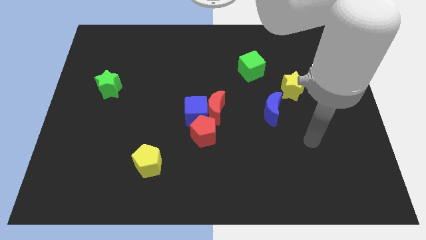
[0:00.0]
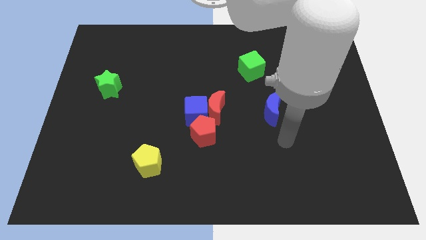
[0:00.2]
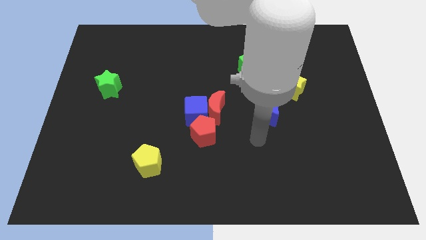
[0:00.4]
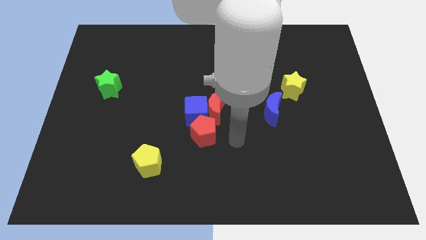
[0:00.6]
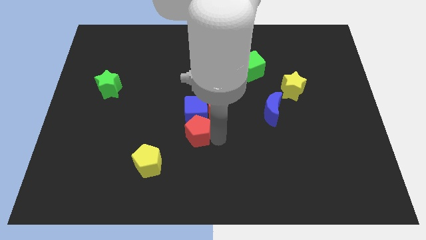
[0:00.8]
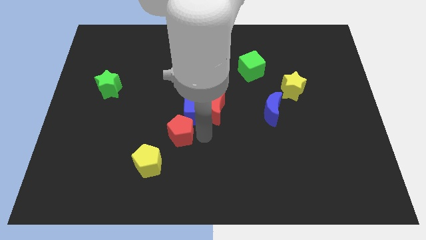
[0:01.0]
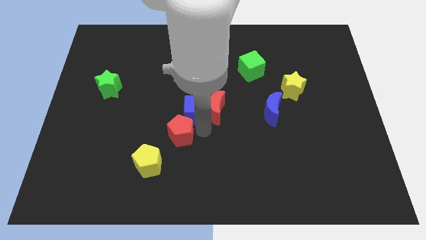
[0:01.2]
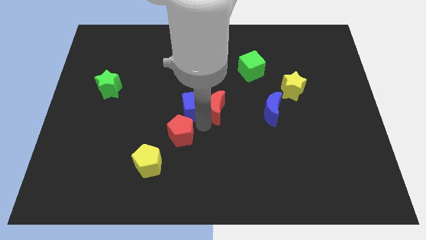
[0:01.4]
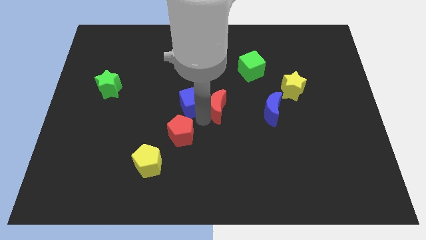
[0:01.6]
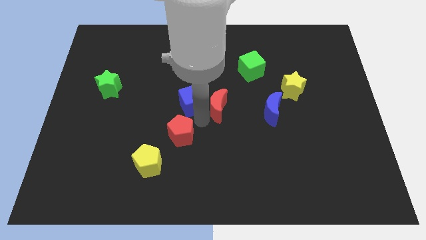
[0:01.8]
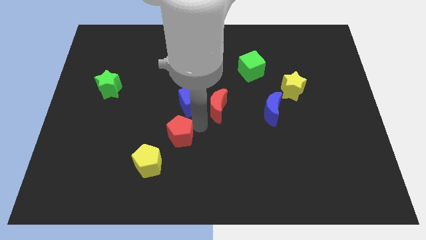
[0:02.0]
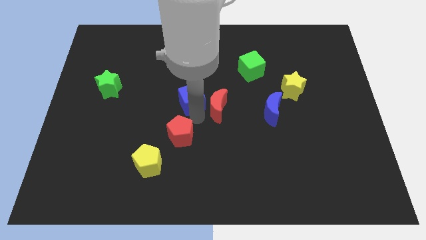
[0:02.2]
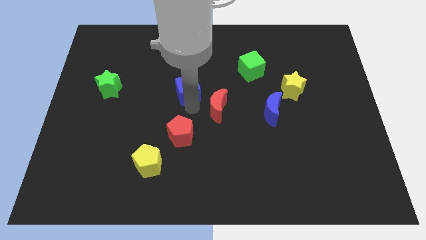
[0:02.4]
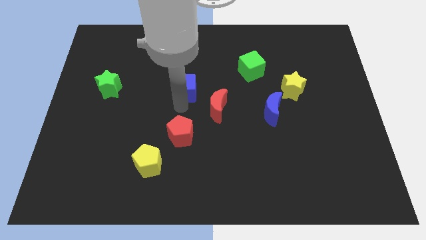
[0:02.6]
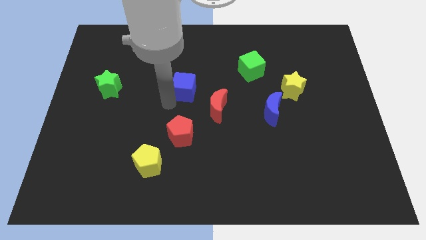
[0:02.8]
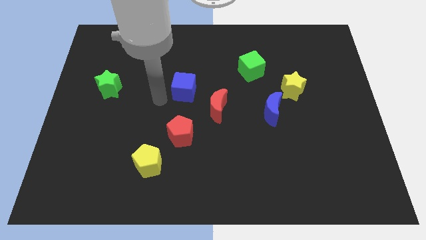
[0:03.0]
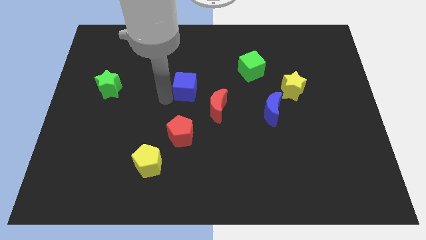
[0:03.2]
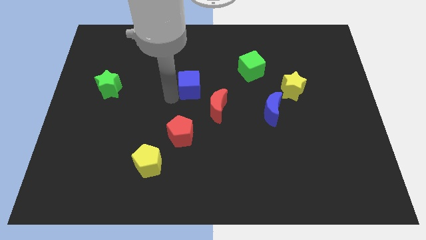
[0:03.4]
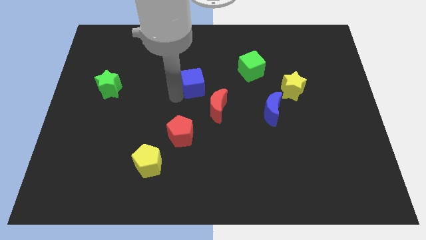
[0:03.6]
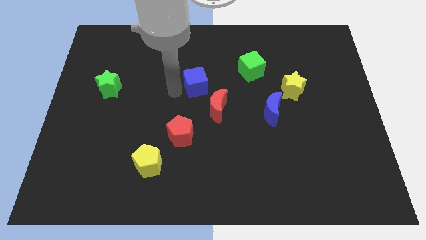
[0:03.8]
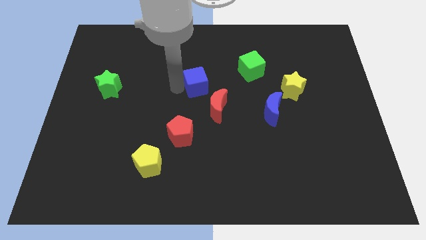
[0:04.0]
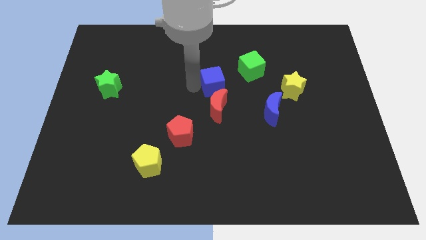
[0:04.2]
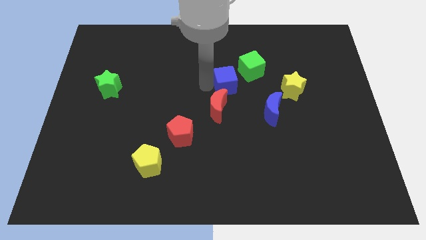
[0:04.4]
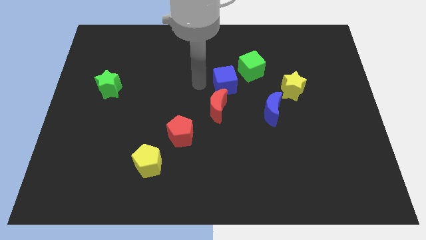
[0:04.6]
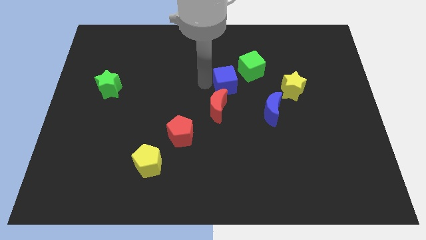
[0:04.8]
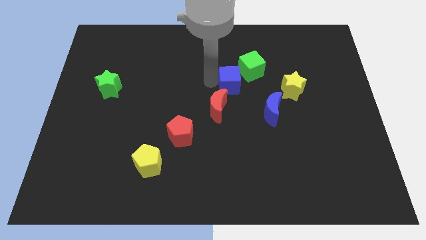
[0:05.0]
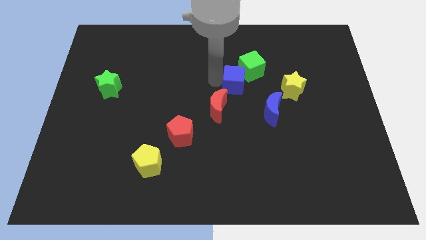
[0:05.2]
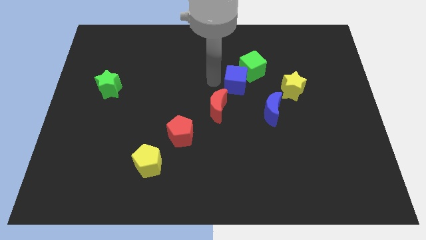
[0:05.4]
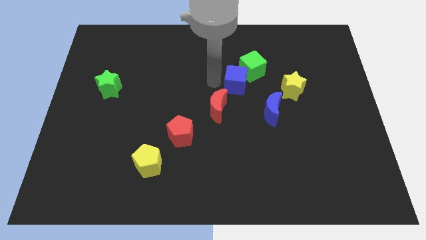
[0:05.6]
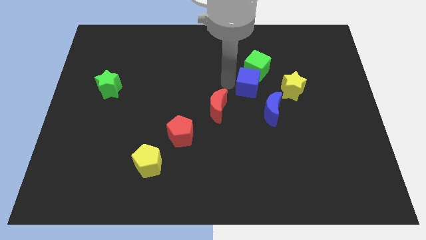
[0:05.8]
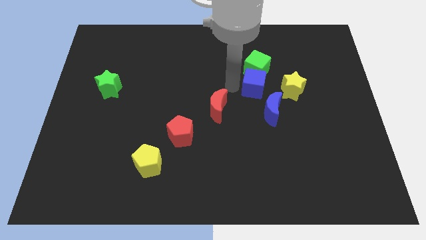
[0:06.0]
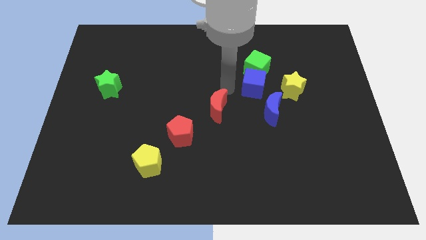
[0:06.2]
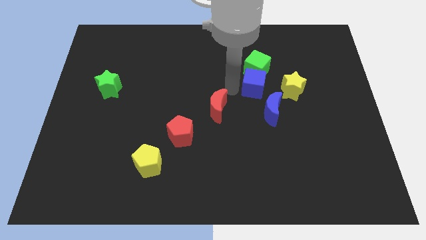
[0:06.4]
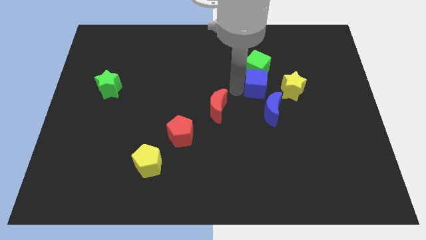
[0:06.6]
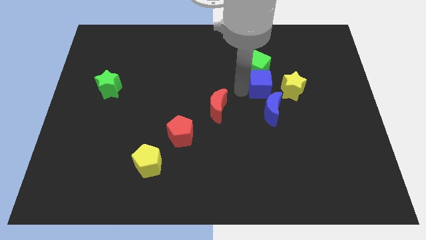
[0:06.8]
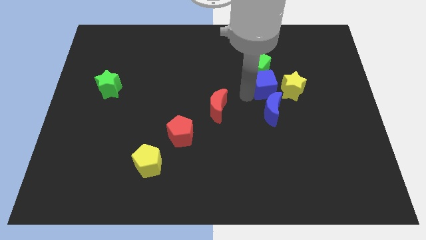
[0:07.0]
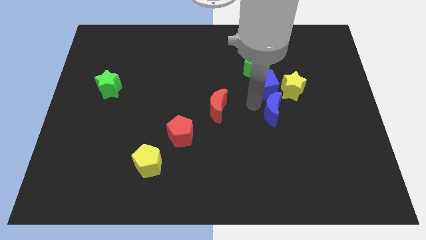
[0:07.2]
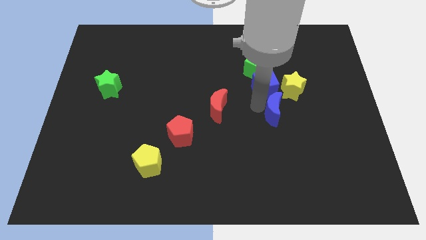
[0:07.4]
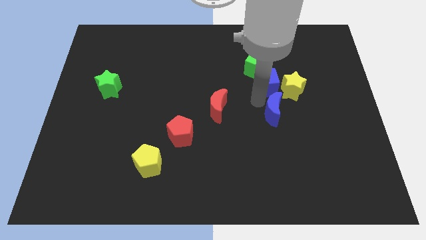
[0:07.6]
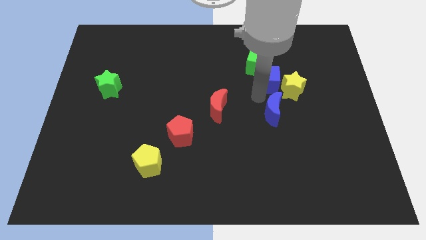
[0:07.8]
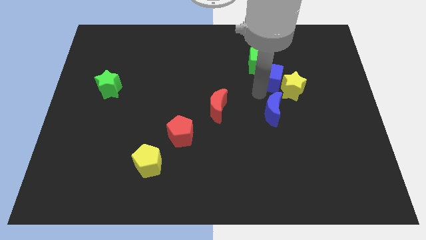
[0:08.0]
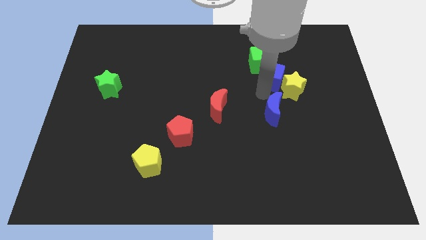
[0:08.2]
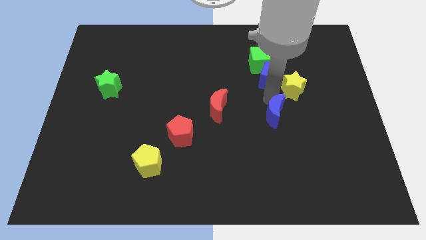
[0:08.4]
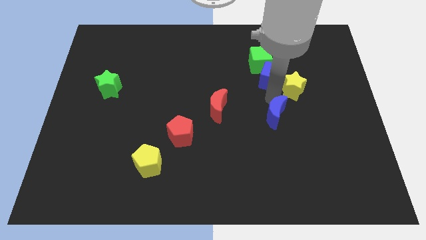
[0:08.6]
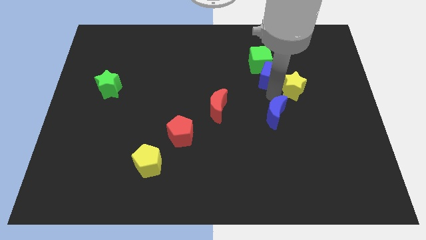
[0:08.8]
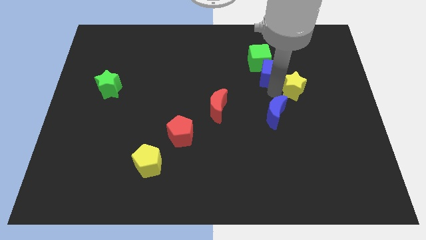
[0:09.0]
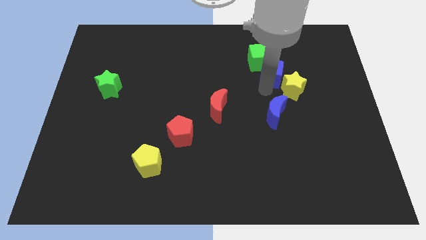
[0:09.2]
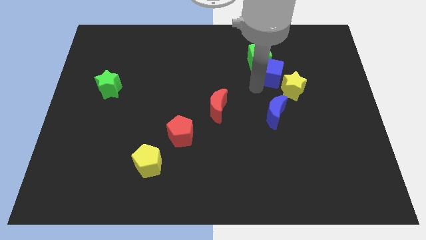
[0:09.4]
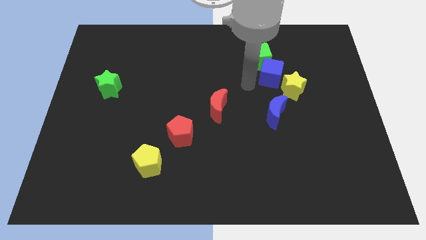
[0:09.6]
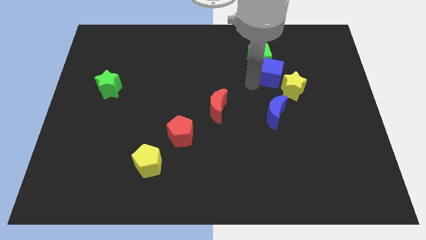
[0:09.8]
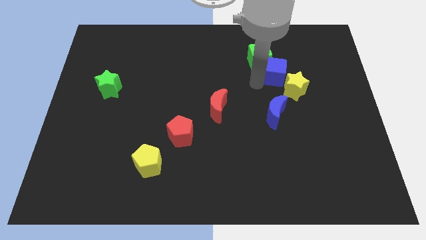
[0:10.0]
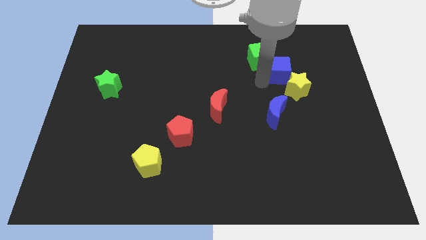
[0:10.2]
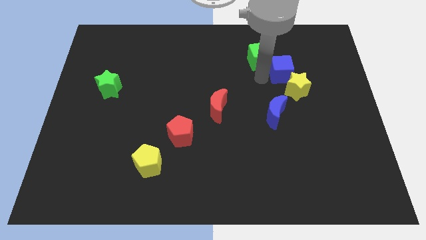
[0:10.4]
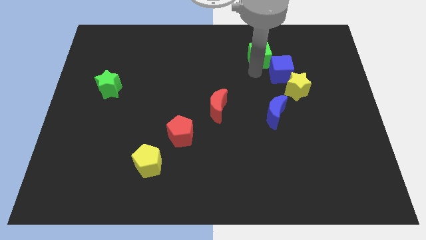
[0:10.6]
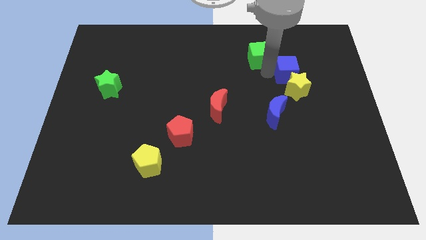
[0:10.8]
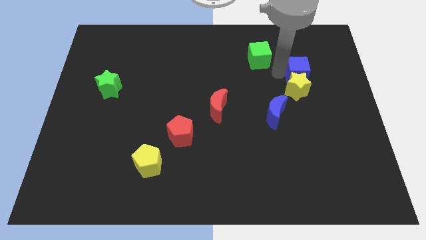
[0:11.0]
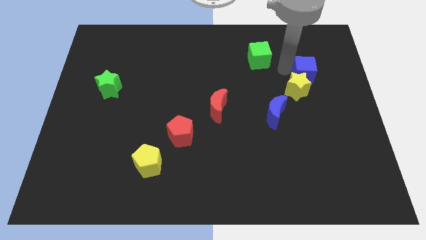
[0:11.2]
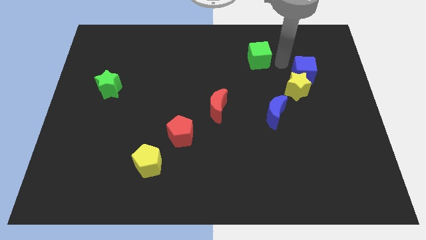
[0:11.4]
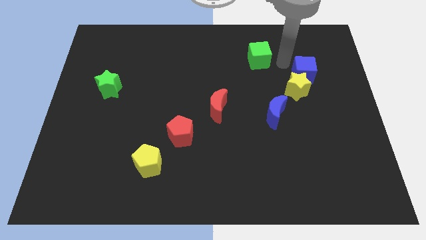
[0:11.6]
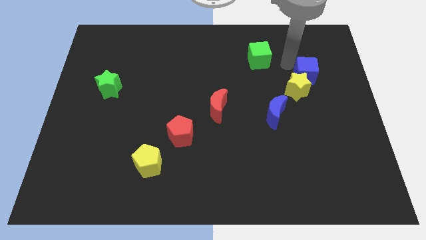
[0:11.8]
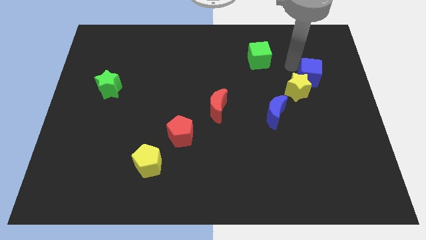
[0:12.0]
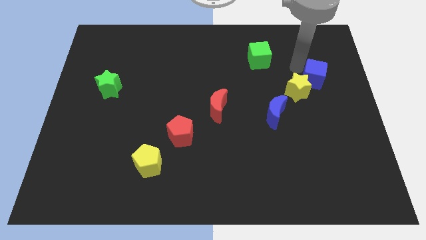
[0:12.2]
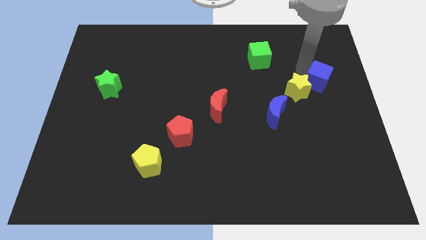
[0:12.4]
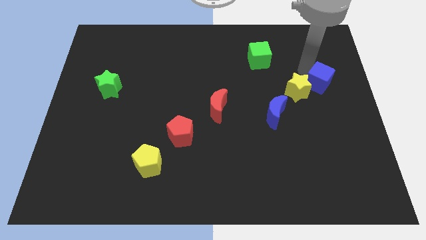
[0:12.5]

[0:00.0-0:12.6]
push the blue cube to the center right
